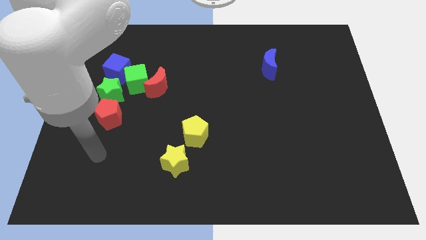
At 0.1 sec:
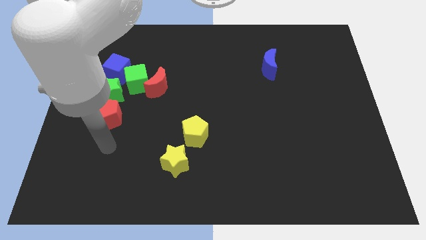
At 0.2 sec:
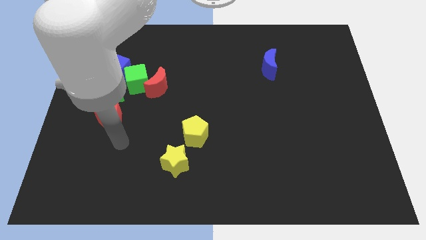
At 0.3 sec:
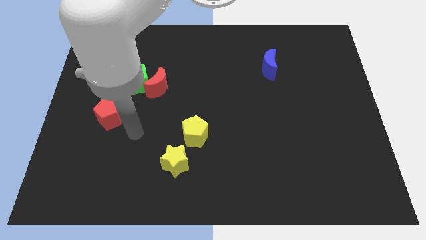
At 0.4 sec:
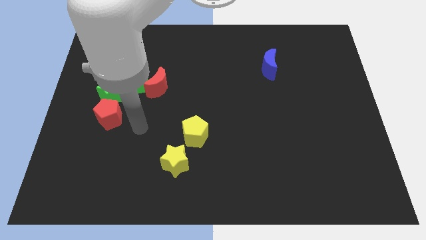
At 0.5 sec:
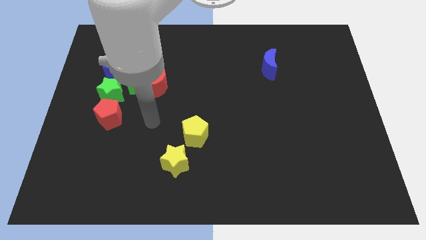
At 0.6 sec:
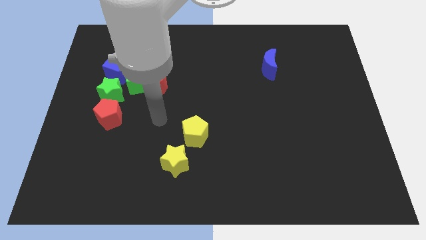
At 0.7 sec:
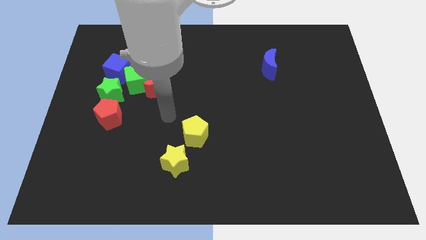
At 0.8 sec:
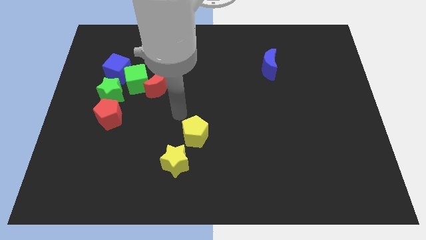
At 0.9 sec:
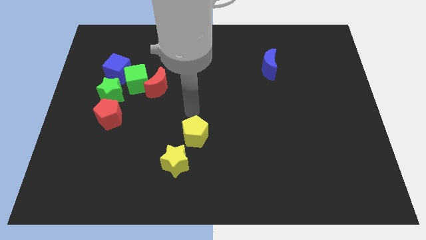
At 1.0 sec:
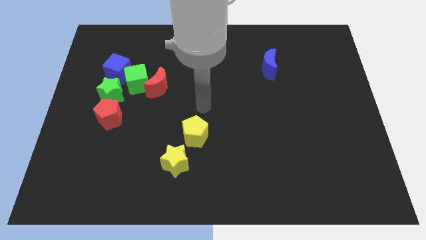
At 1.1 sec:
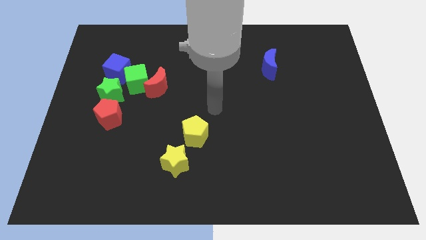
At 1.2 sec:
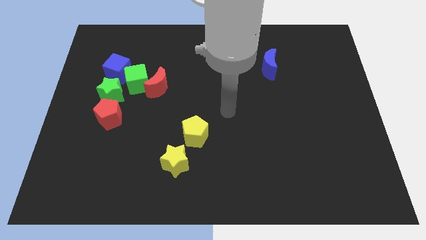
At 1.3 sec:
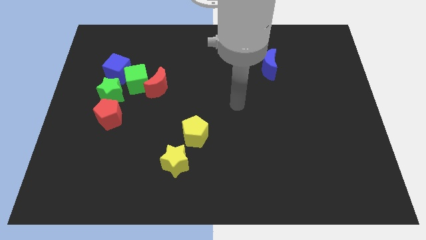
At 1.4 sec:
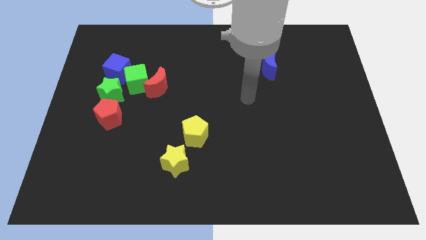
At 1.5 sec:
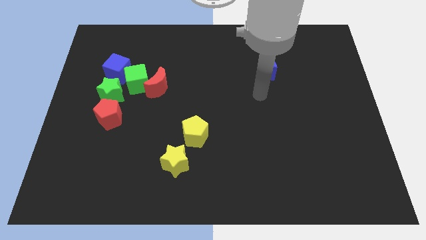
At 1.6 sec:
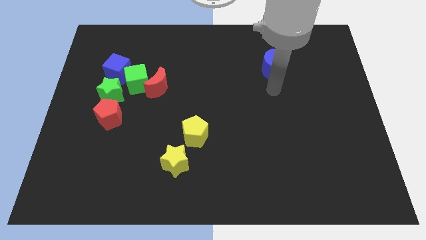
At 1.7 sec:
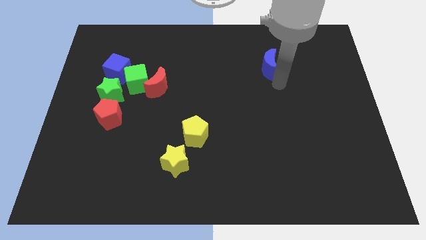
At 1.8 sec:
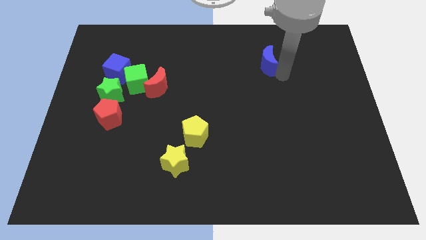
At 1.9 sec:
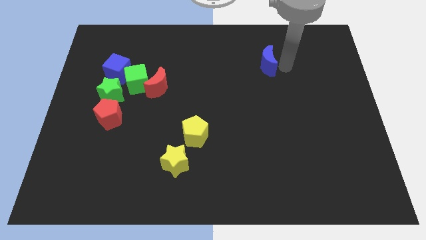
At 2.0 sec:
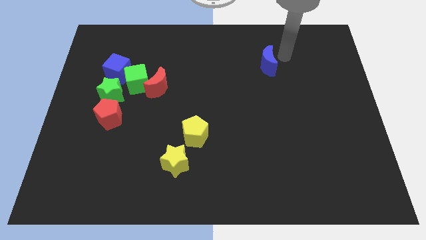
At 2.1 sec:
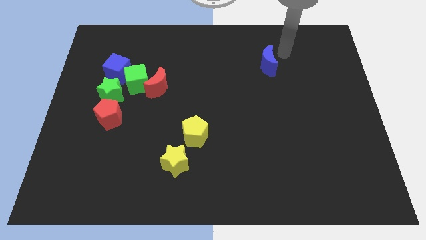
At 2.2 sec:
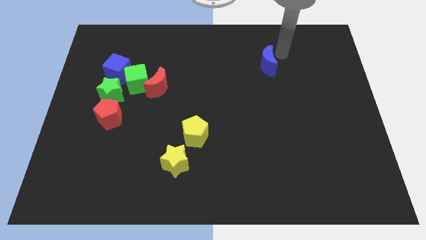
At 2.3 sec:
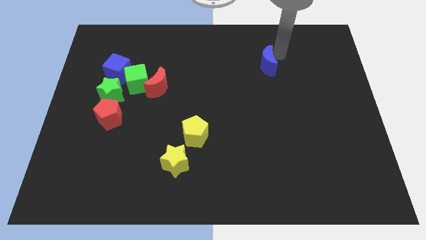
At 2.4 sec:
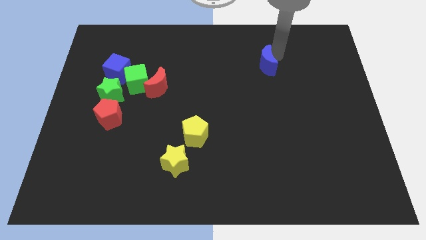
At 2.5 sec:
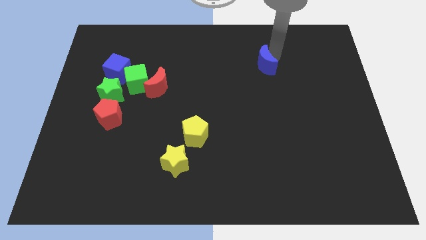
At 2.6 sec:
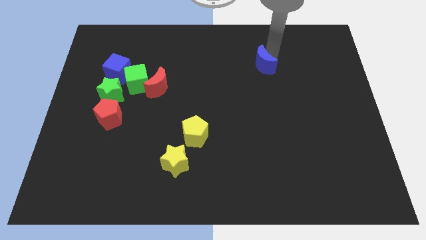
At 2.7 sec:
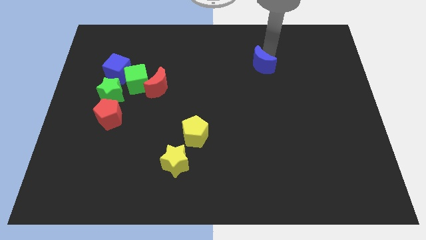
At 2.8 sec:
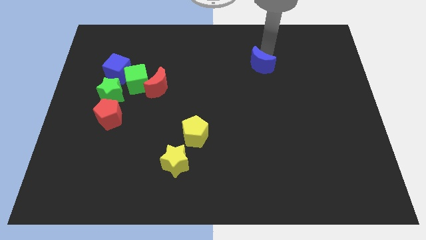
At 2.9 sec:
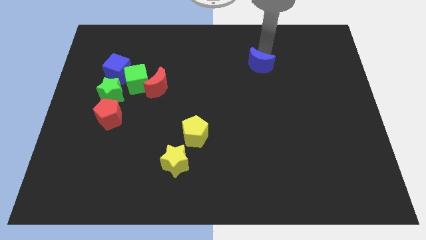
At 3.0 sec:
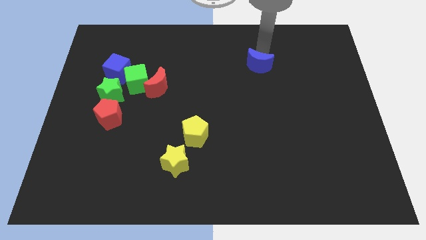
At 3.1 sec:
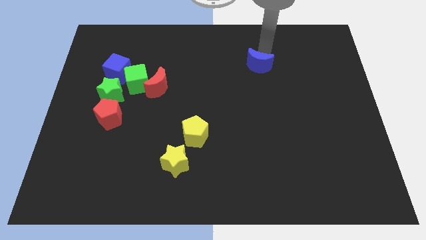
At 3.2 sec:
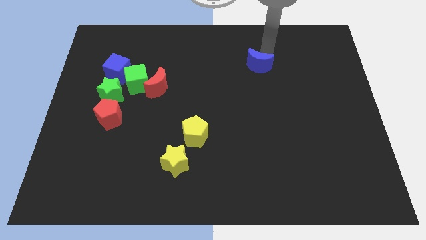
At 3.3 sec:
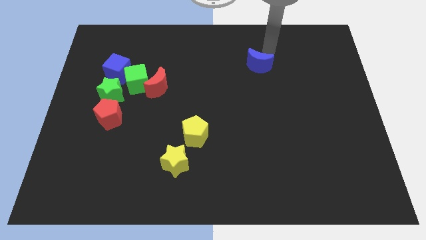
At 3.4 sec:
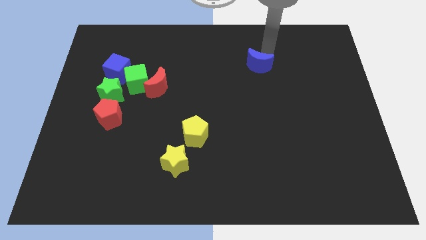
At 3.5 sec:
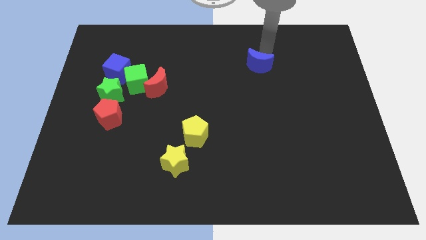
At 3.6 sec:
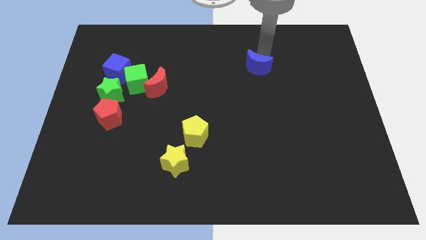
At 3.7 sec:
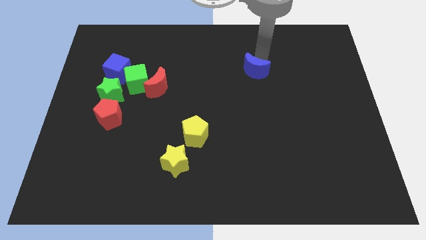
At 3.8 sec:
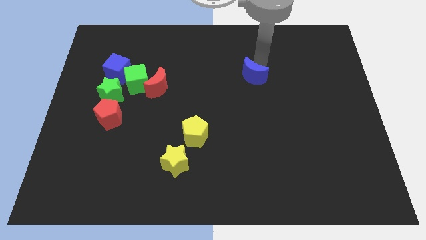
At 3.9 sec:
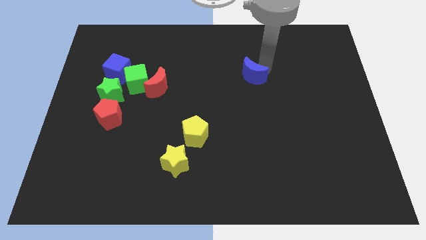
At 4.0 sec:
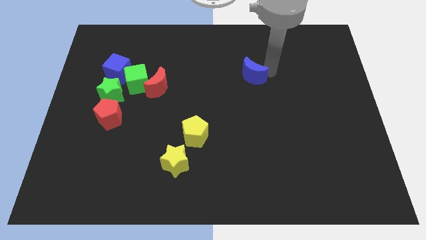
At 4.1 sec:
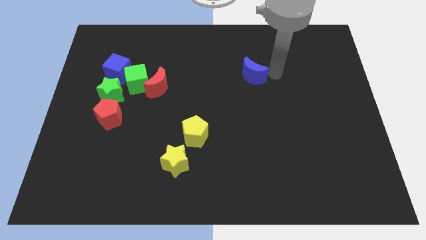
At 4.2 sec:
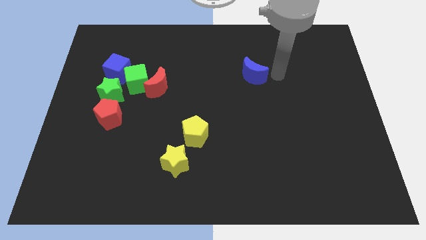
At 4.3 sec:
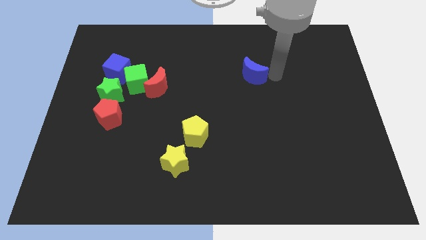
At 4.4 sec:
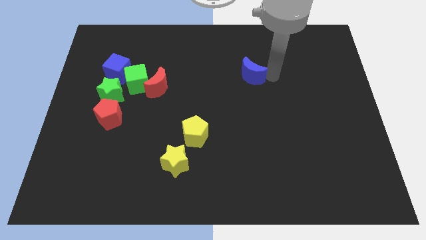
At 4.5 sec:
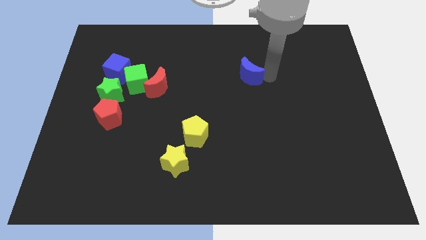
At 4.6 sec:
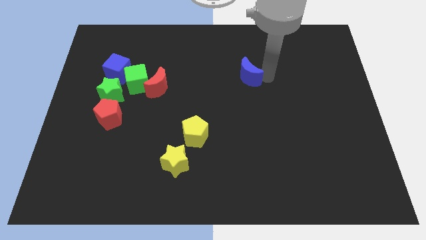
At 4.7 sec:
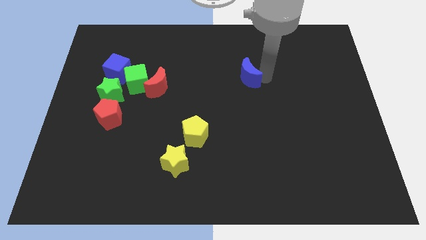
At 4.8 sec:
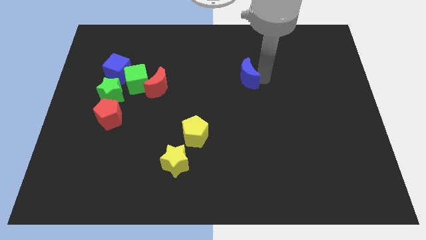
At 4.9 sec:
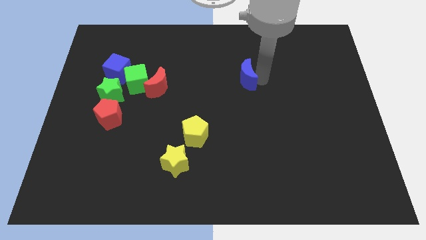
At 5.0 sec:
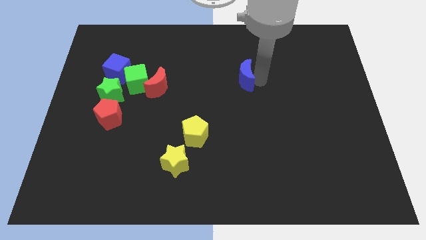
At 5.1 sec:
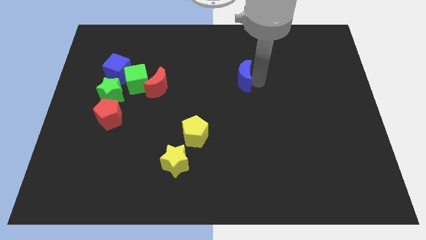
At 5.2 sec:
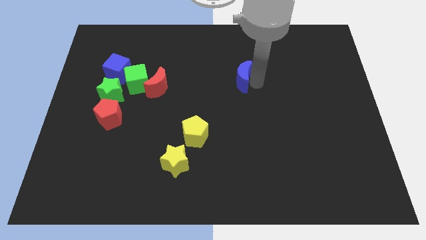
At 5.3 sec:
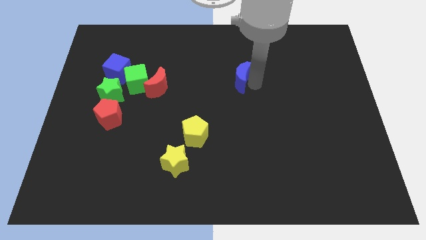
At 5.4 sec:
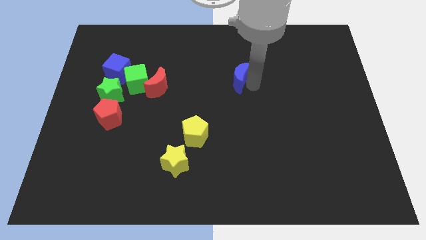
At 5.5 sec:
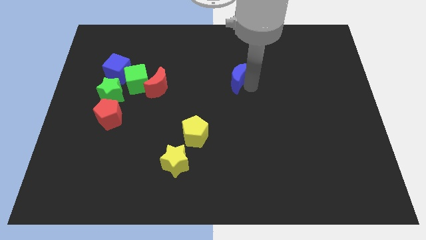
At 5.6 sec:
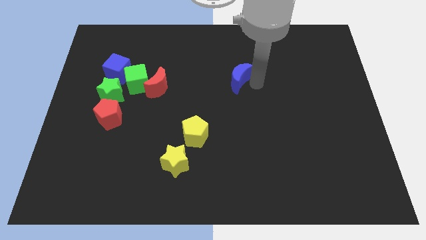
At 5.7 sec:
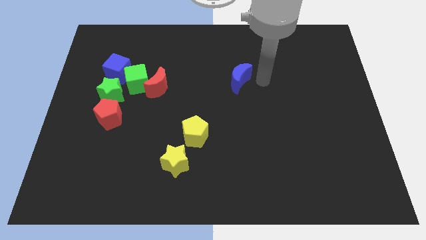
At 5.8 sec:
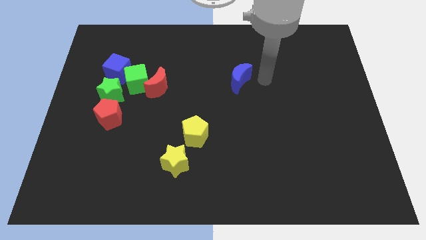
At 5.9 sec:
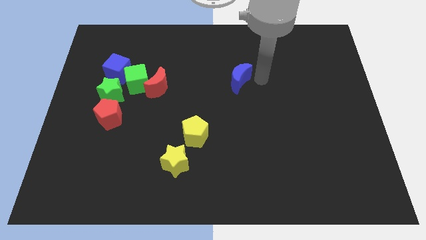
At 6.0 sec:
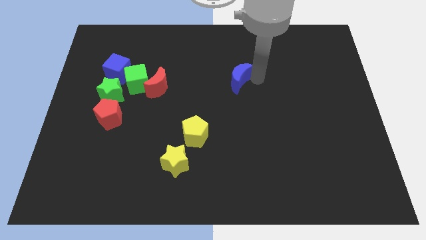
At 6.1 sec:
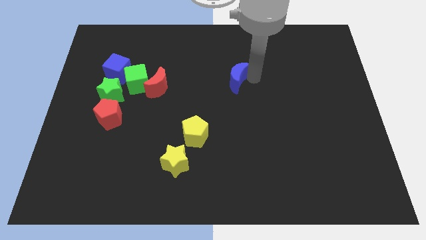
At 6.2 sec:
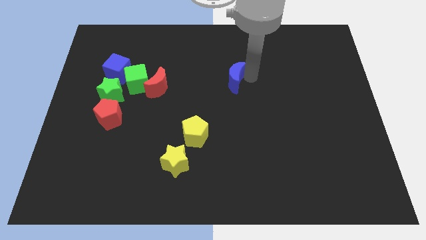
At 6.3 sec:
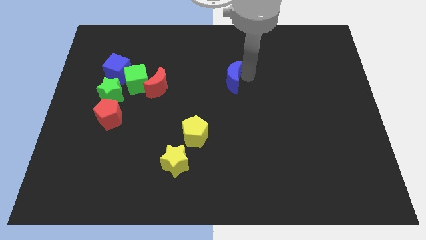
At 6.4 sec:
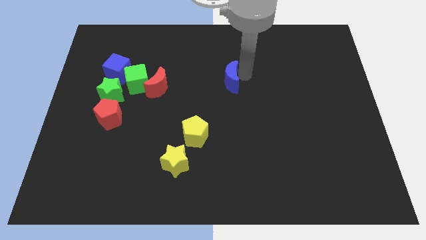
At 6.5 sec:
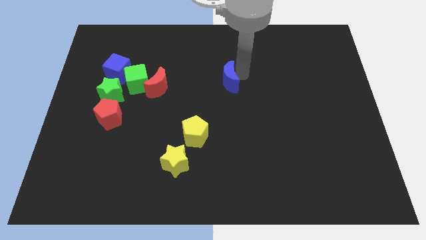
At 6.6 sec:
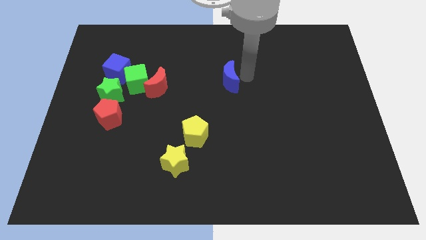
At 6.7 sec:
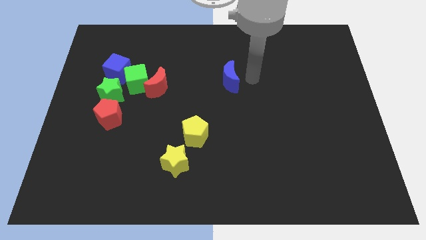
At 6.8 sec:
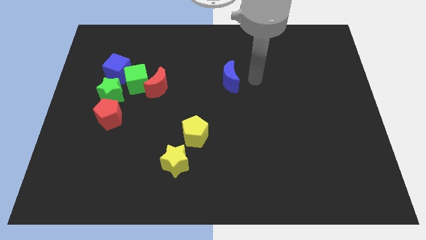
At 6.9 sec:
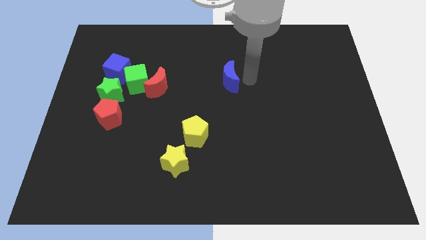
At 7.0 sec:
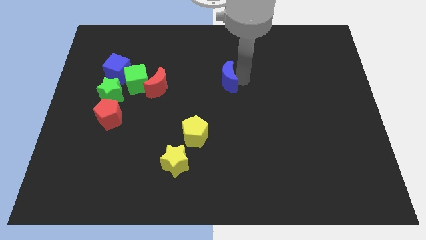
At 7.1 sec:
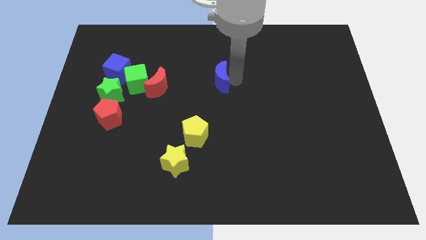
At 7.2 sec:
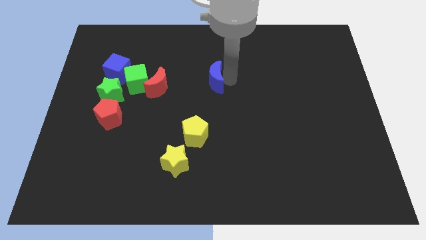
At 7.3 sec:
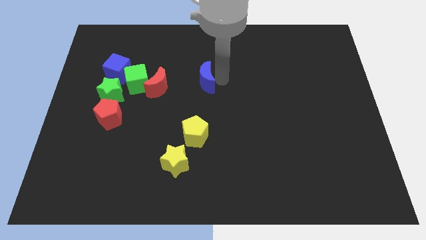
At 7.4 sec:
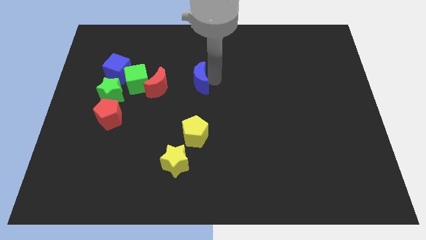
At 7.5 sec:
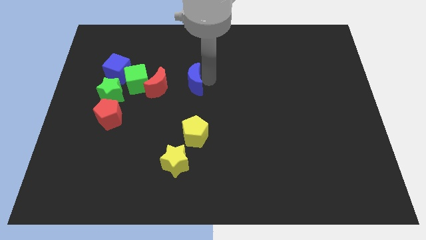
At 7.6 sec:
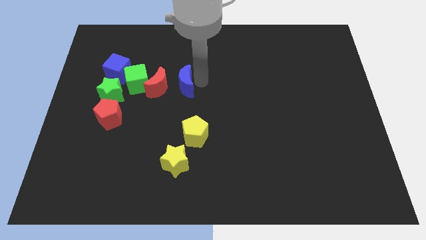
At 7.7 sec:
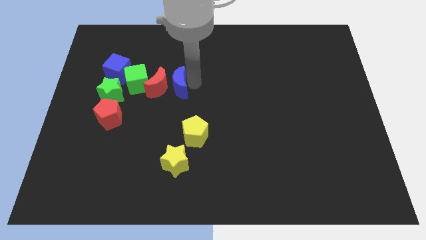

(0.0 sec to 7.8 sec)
push the blue moon close to the red moon
